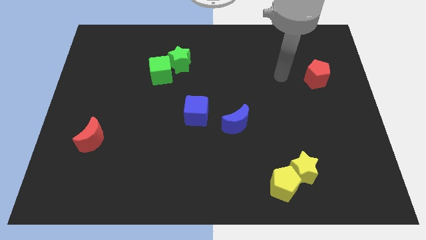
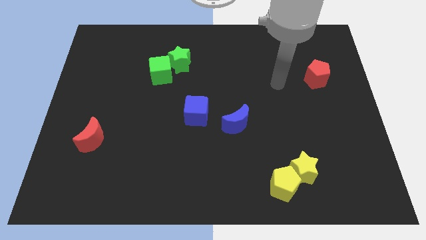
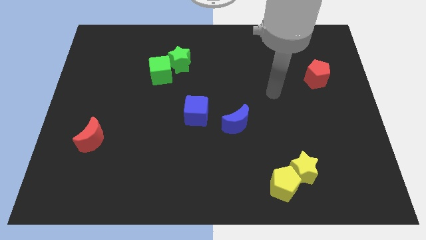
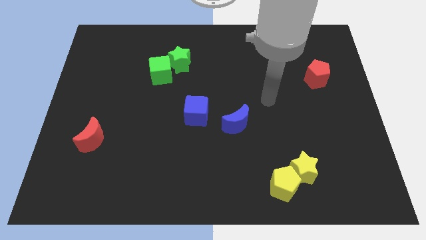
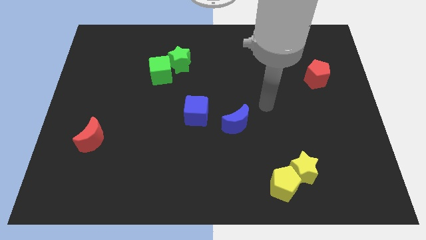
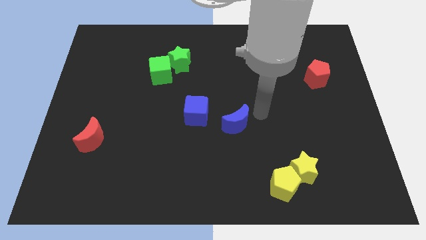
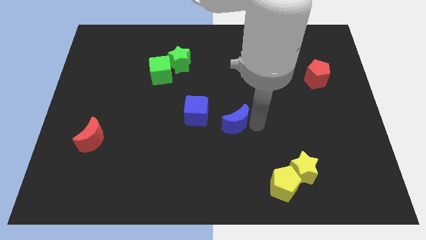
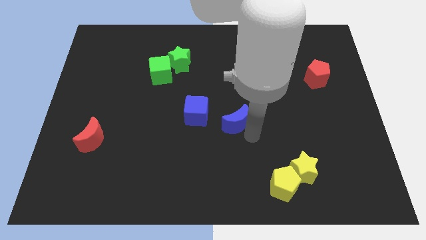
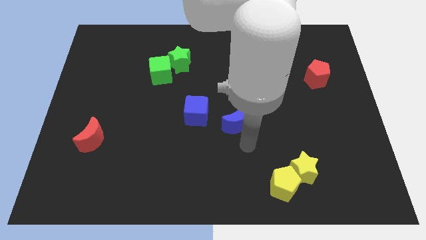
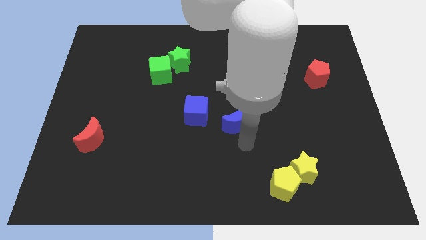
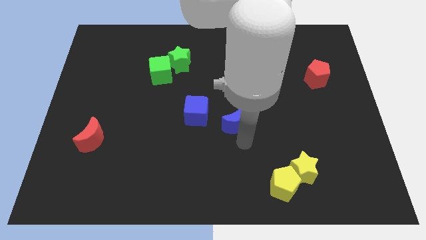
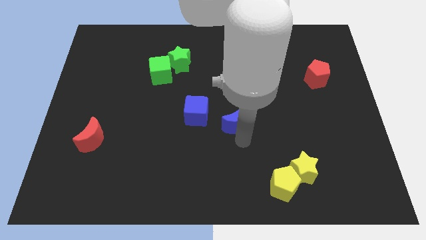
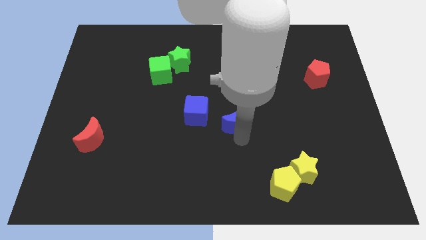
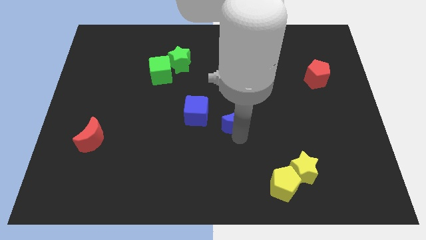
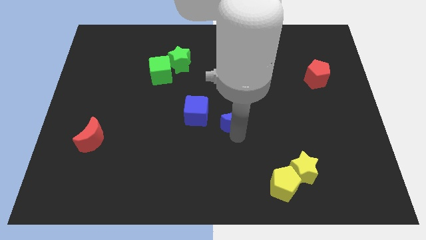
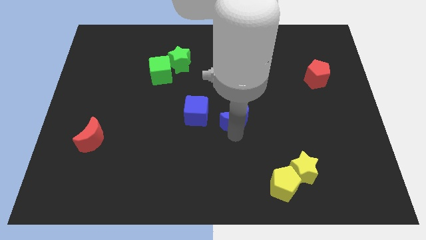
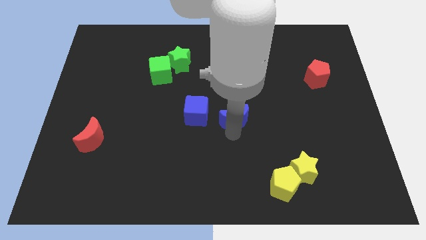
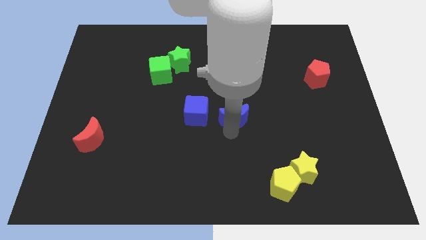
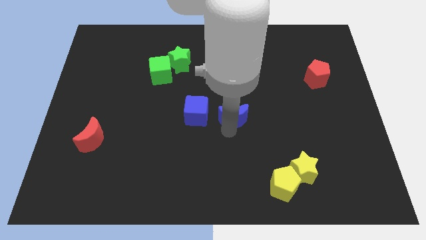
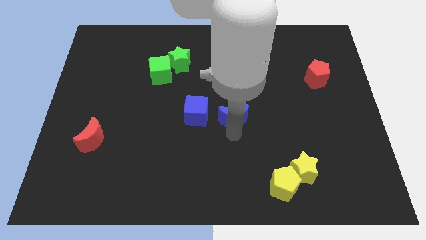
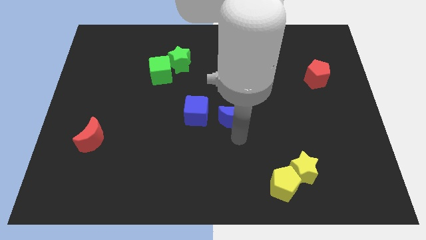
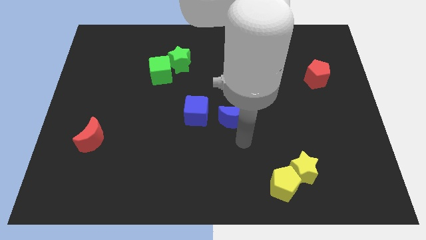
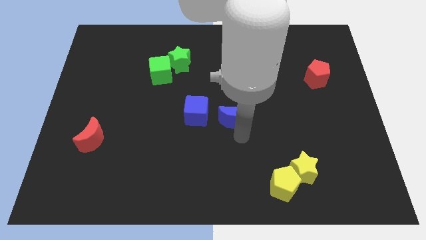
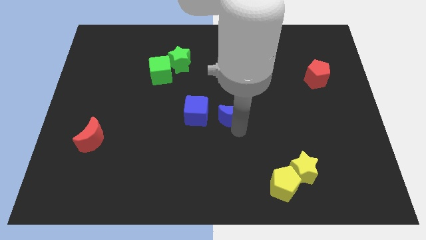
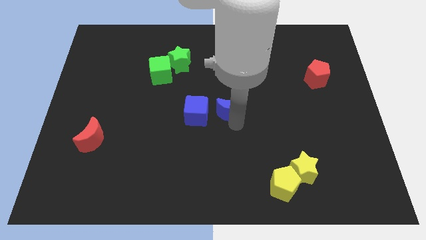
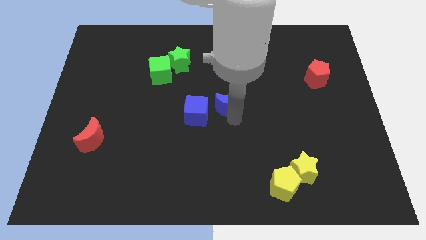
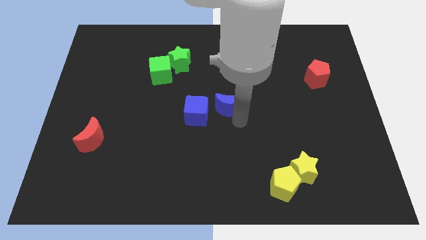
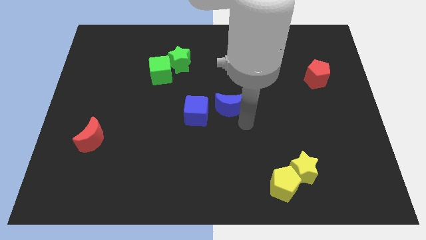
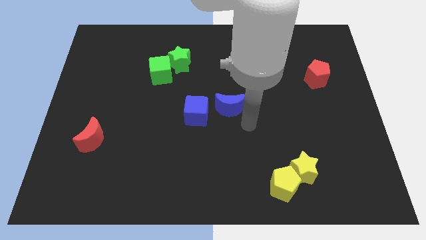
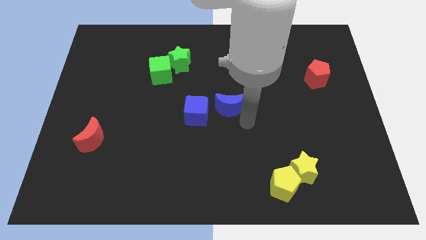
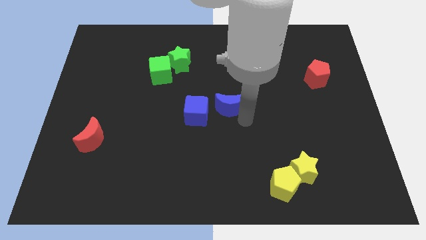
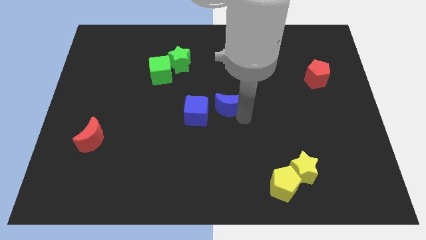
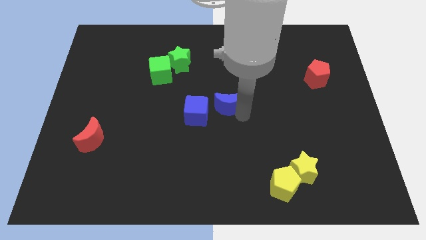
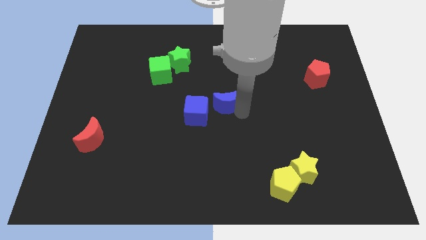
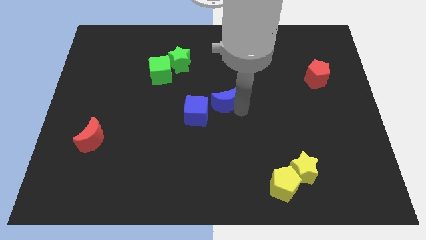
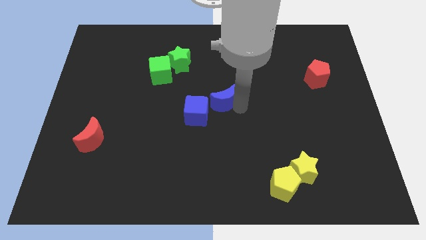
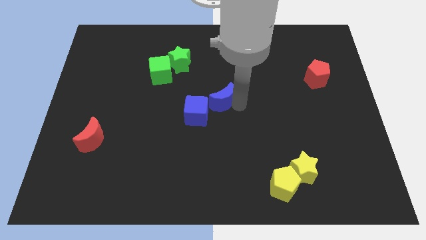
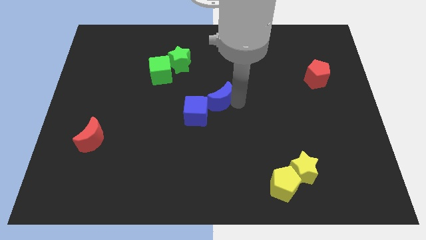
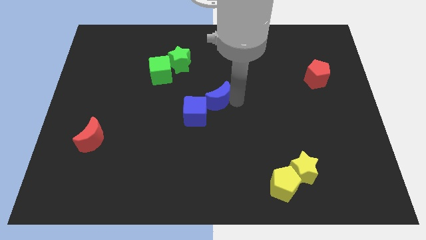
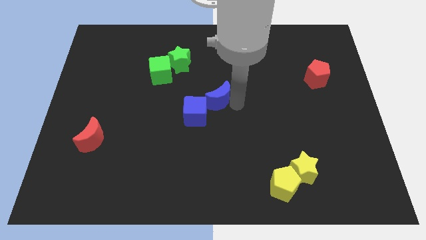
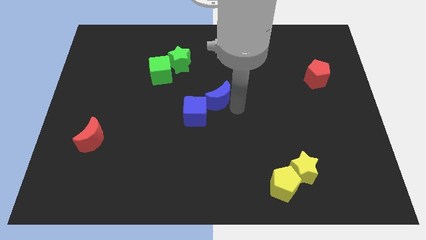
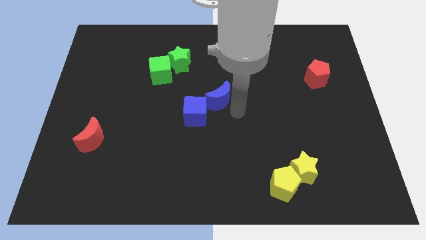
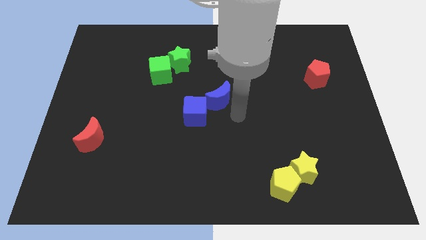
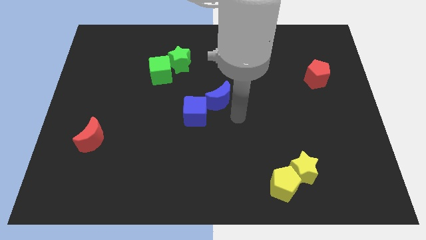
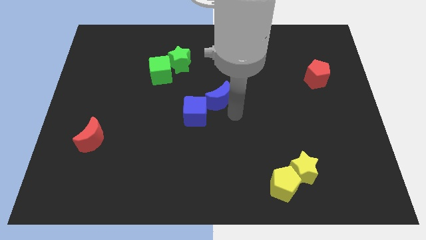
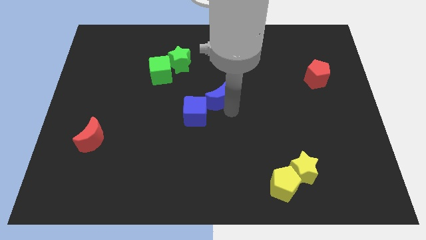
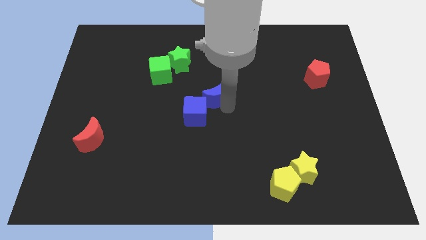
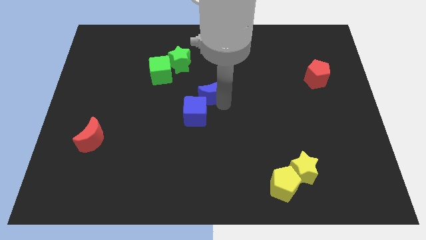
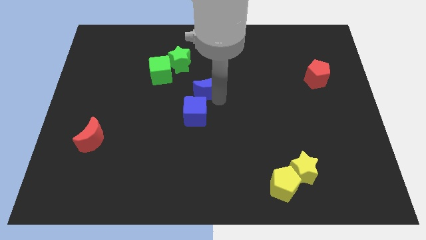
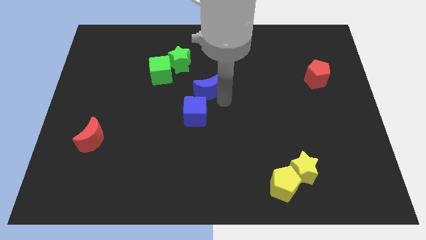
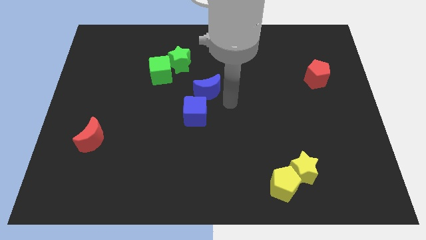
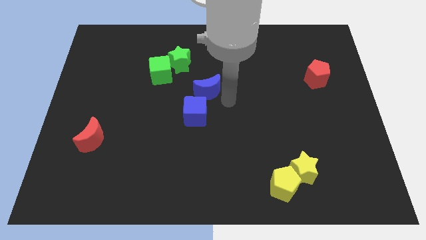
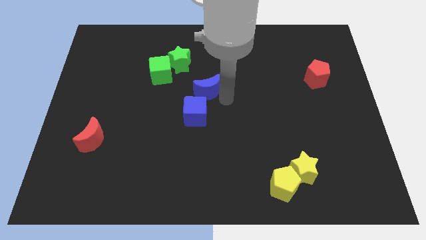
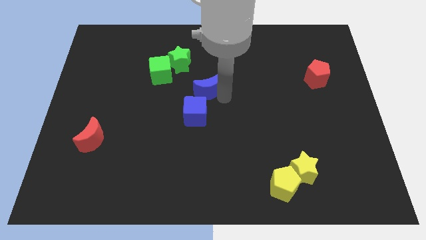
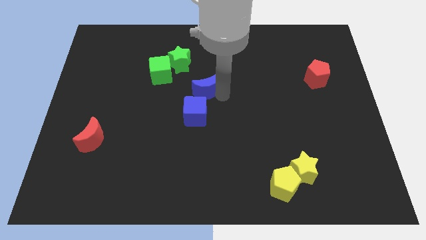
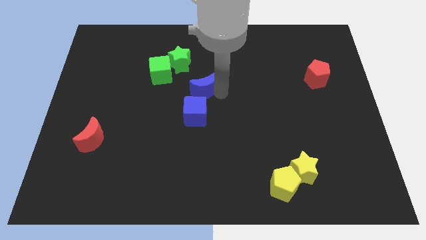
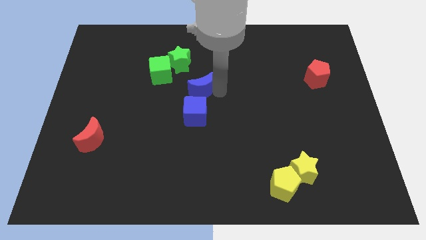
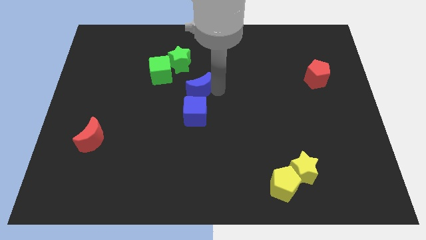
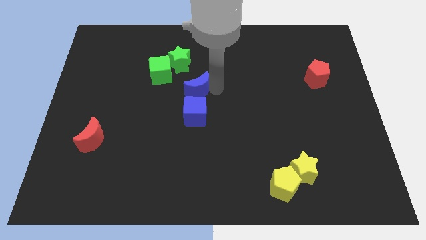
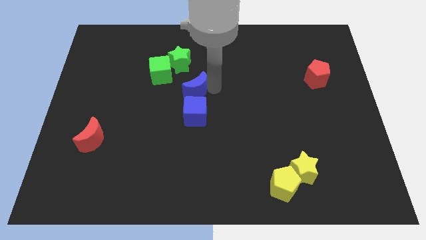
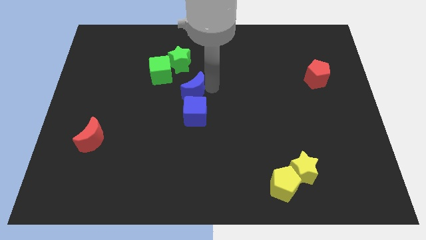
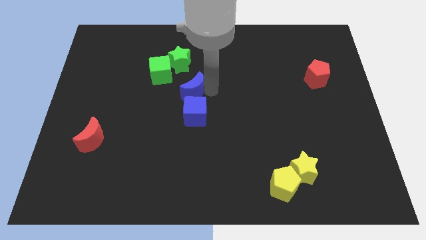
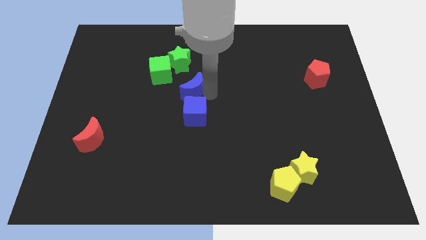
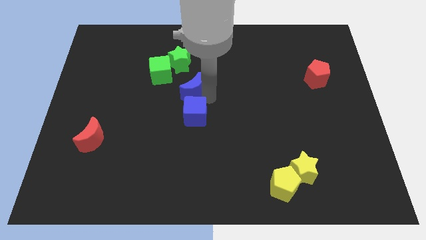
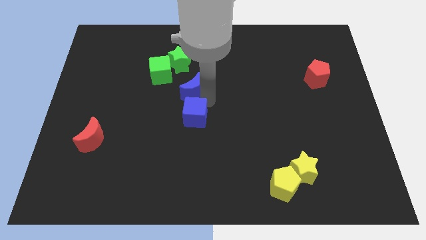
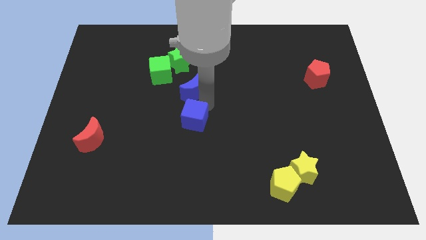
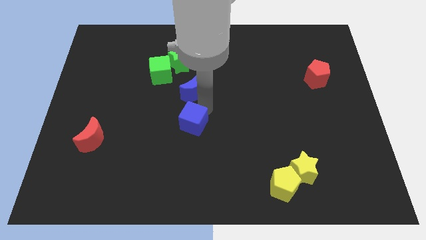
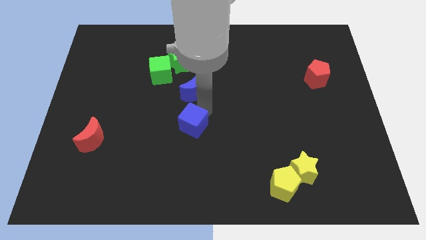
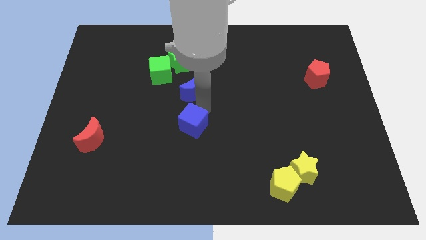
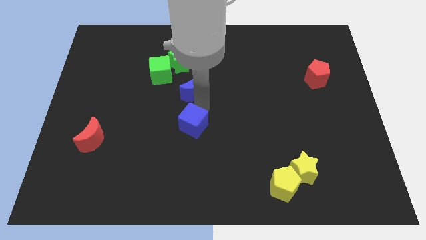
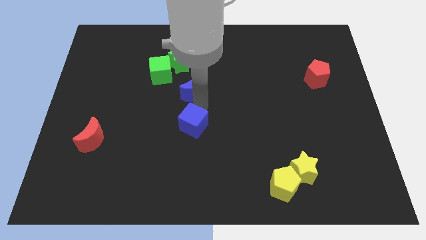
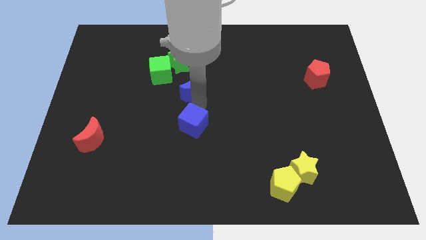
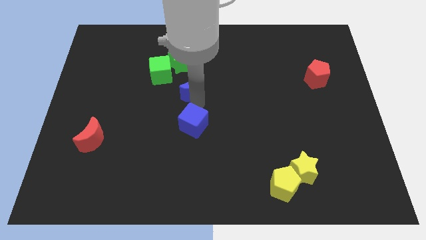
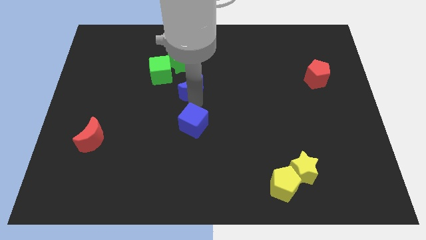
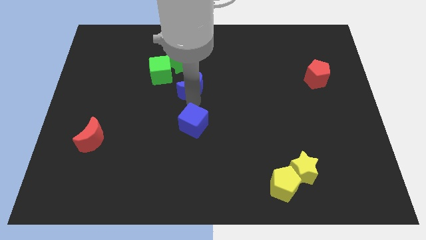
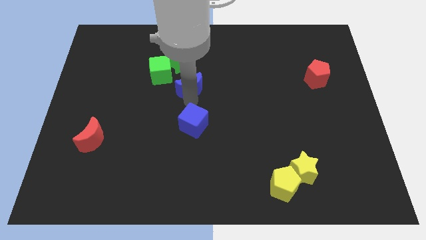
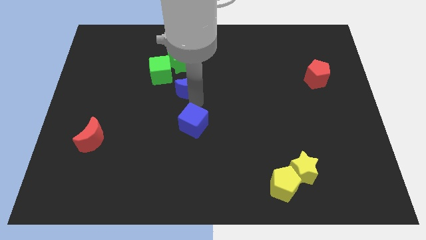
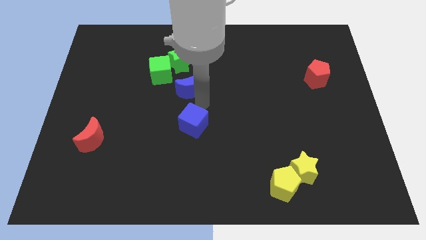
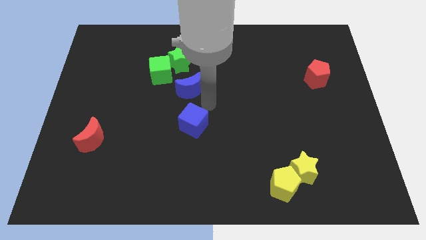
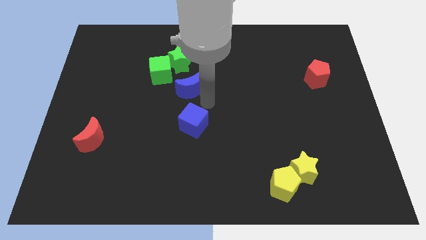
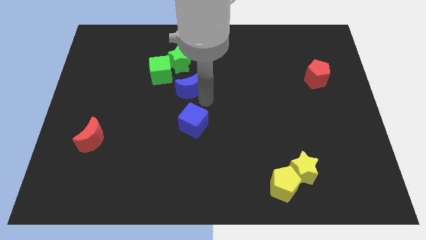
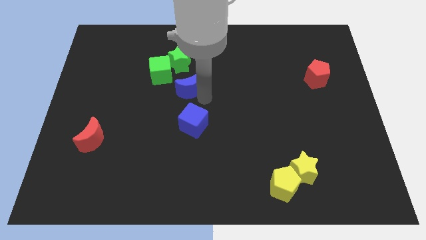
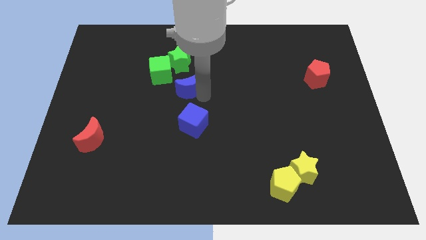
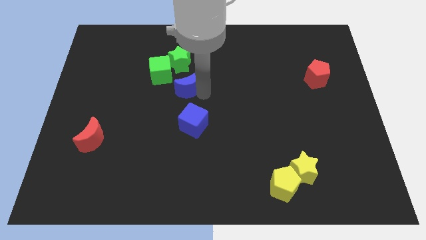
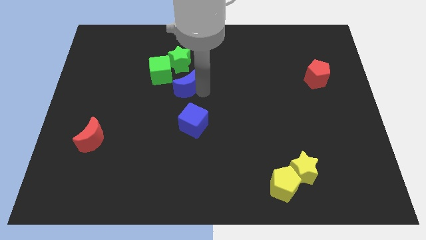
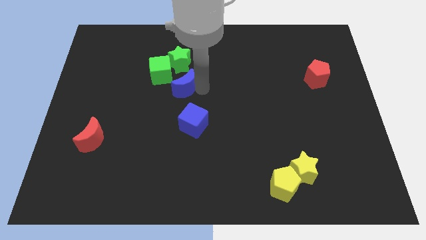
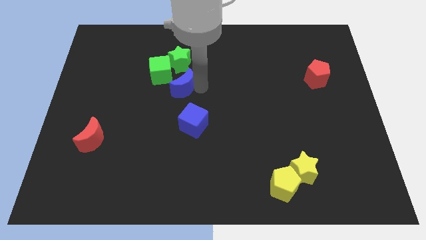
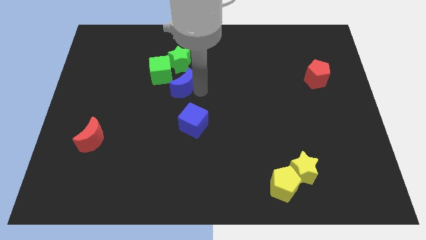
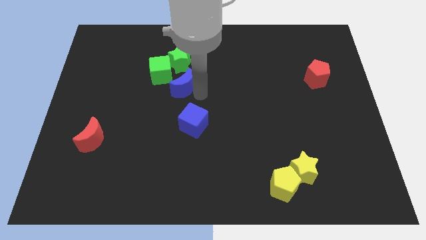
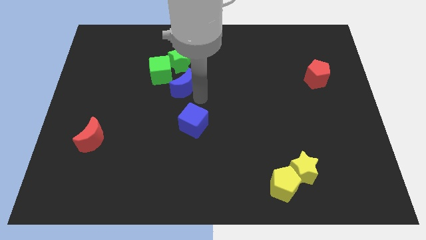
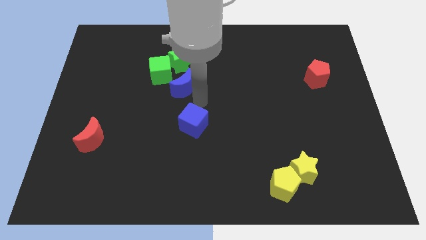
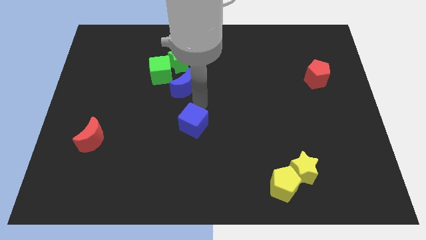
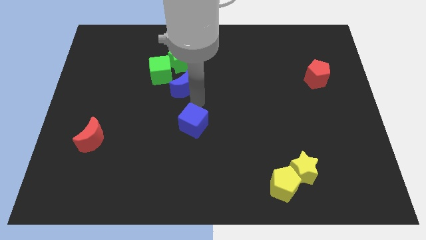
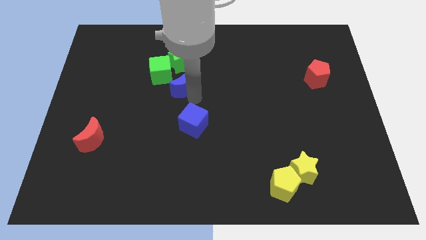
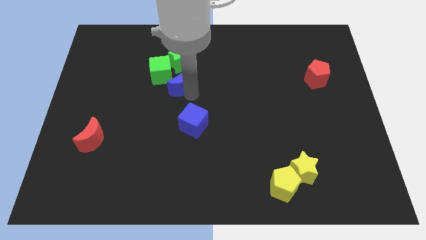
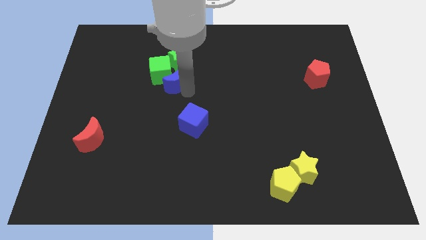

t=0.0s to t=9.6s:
put the blue moon to the green cube
